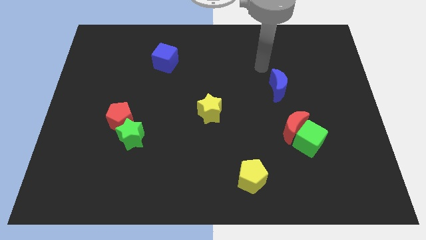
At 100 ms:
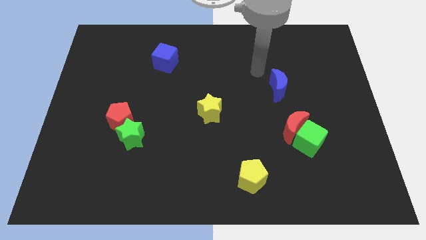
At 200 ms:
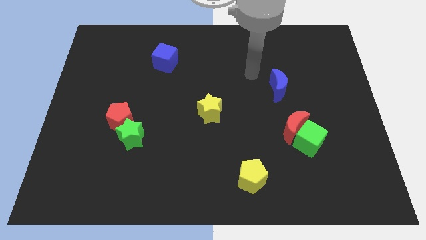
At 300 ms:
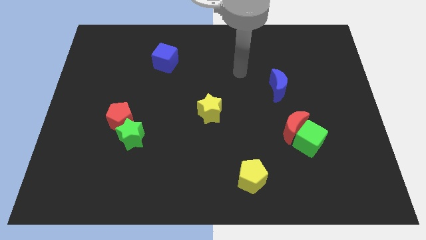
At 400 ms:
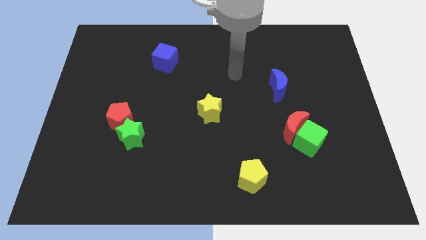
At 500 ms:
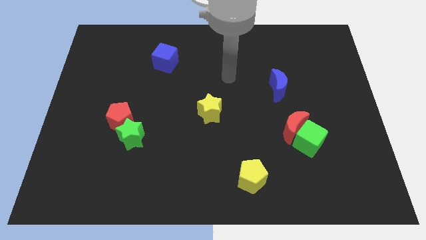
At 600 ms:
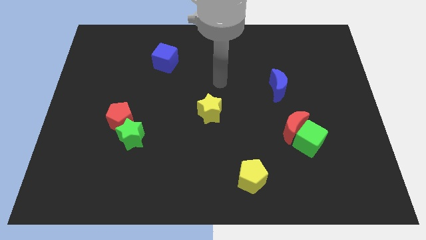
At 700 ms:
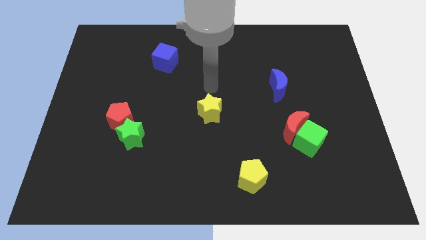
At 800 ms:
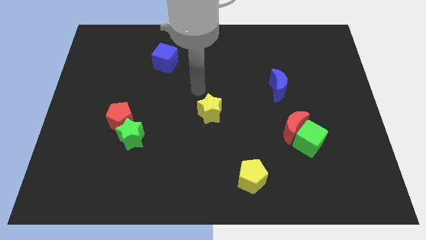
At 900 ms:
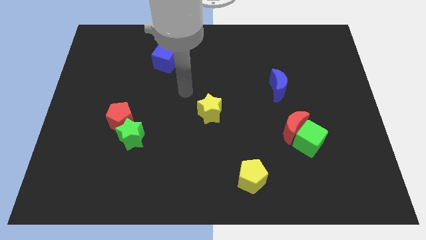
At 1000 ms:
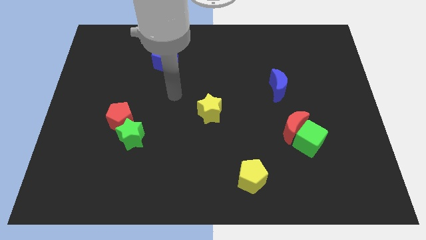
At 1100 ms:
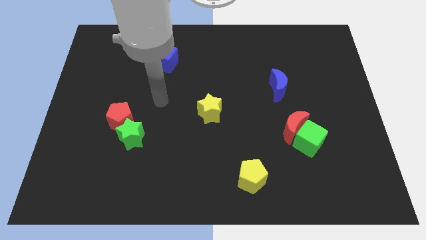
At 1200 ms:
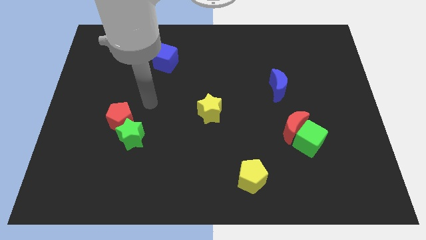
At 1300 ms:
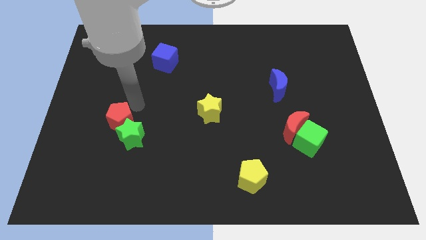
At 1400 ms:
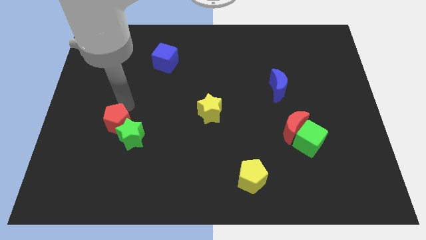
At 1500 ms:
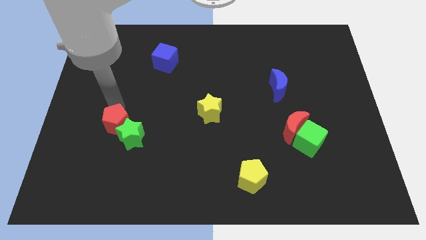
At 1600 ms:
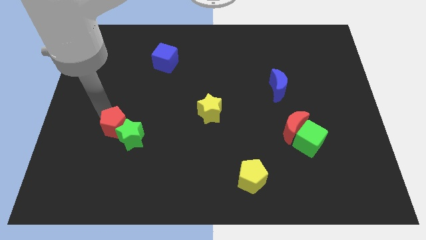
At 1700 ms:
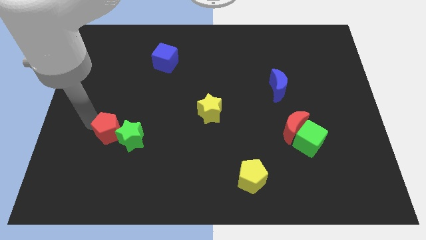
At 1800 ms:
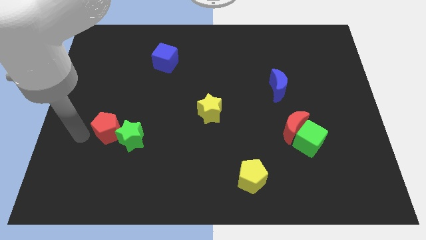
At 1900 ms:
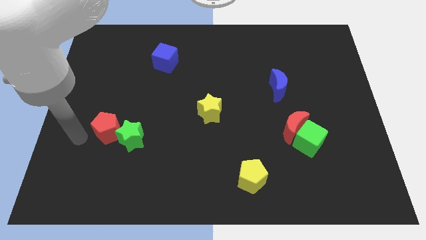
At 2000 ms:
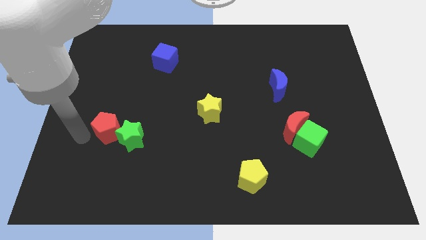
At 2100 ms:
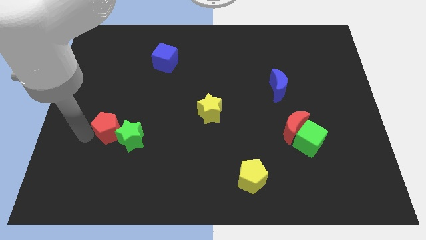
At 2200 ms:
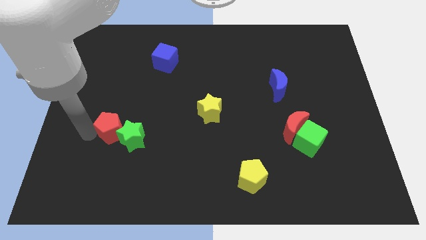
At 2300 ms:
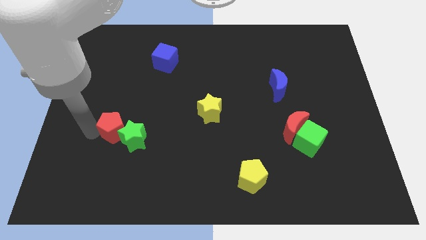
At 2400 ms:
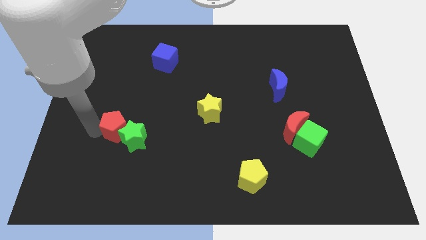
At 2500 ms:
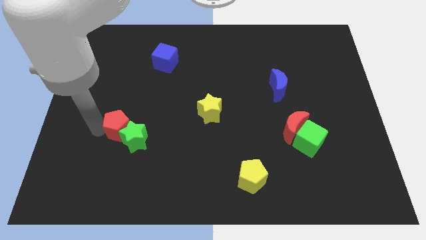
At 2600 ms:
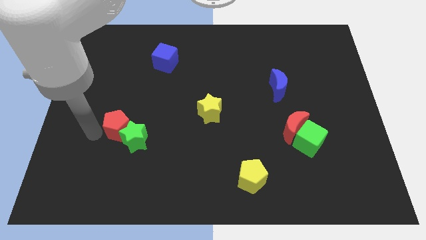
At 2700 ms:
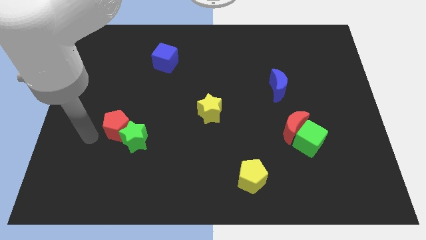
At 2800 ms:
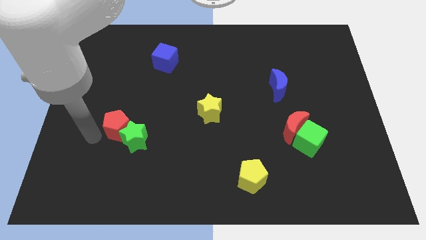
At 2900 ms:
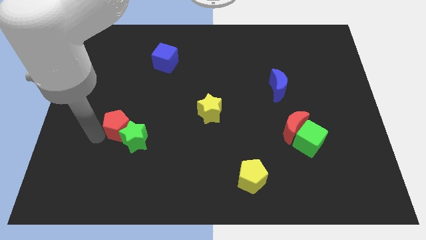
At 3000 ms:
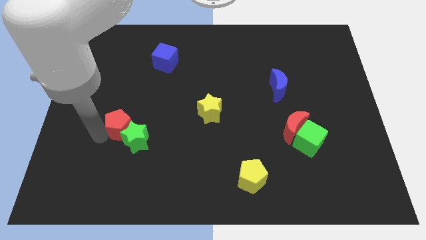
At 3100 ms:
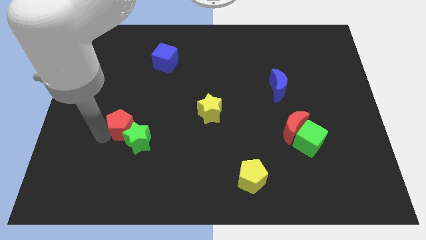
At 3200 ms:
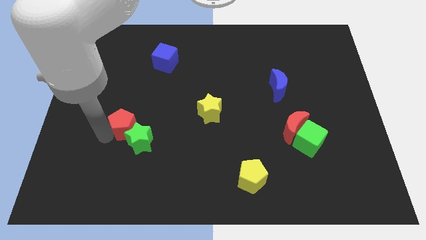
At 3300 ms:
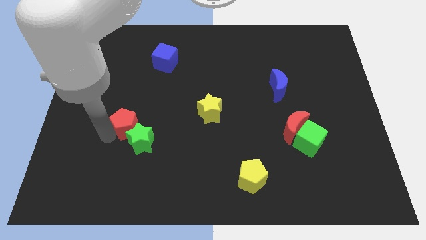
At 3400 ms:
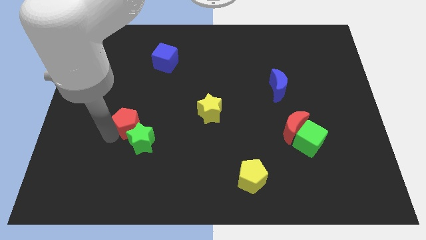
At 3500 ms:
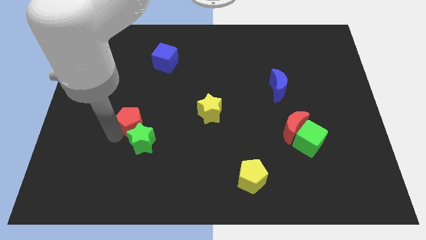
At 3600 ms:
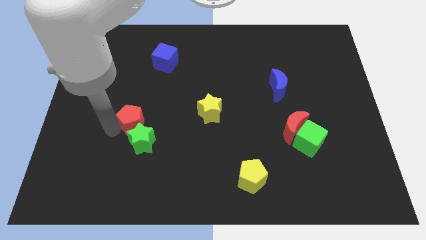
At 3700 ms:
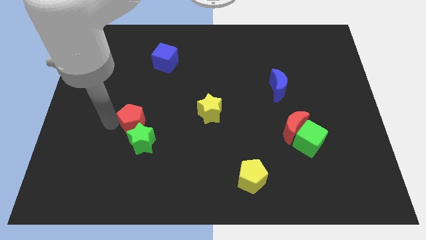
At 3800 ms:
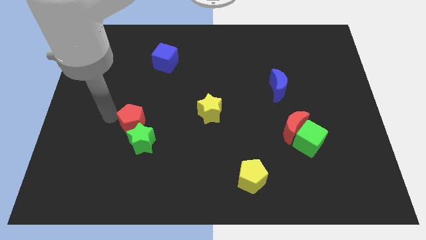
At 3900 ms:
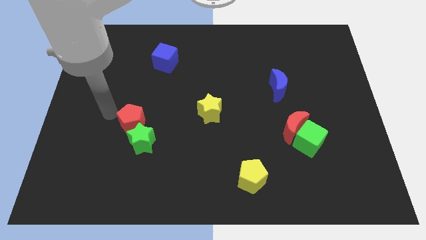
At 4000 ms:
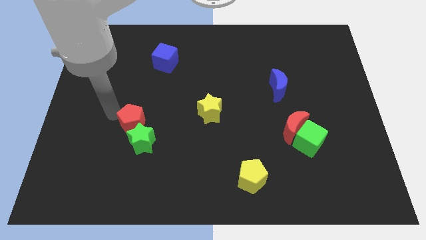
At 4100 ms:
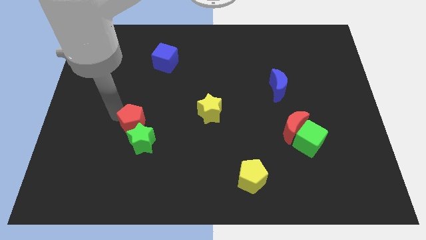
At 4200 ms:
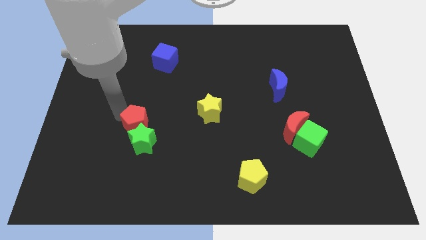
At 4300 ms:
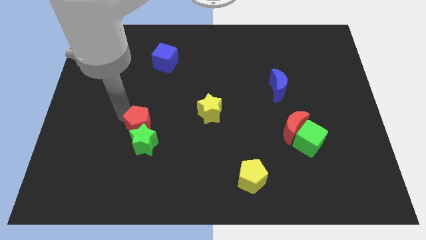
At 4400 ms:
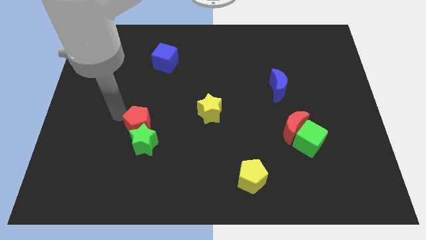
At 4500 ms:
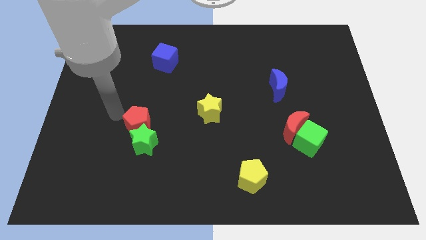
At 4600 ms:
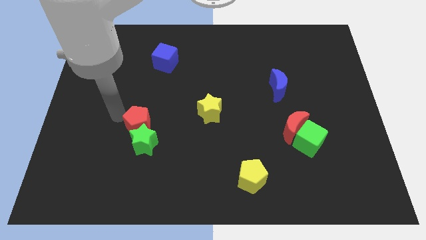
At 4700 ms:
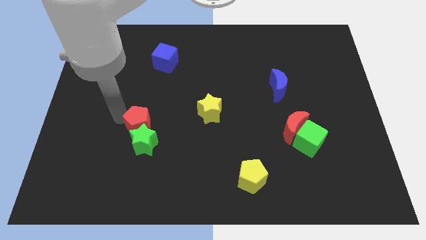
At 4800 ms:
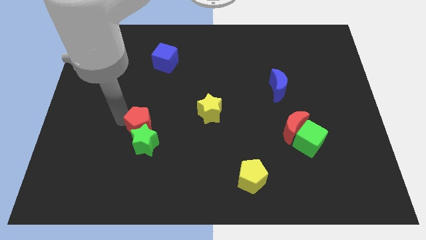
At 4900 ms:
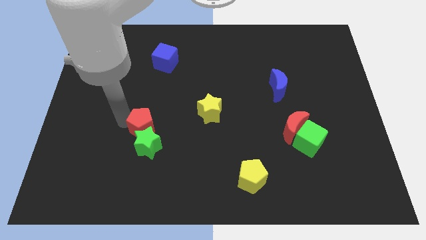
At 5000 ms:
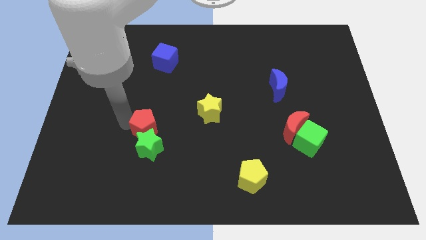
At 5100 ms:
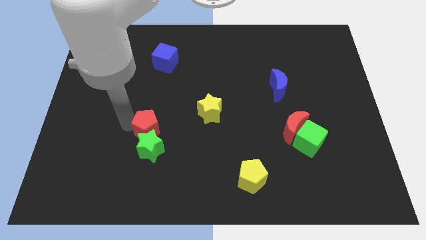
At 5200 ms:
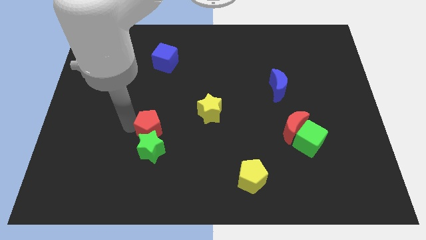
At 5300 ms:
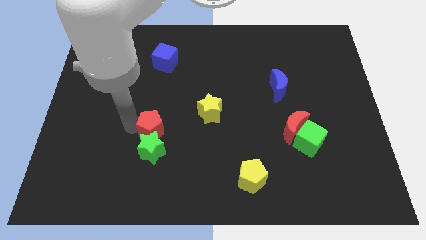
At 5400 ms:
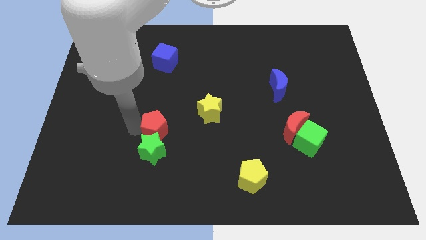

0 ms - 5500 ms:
slightly slide the red pentagon downwards and right

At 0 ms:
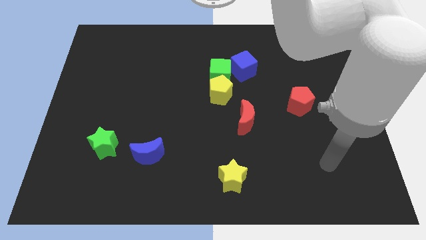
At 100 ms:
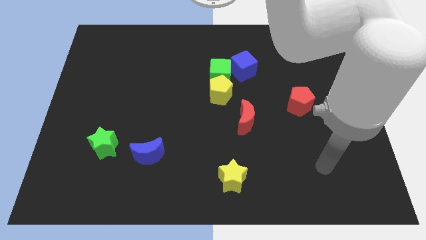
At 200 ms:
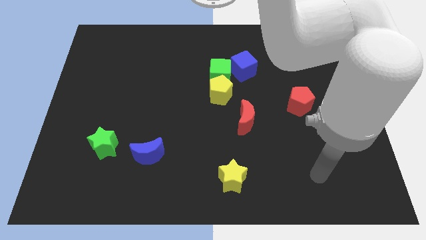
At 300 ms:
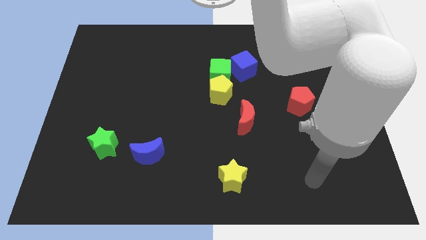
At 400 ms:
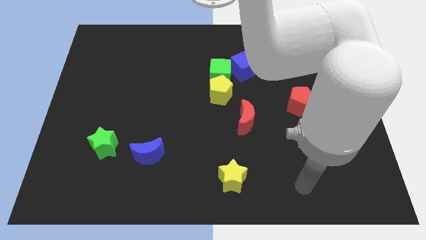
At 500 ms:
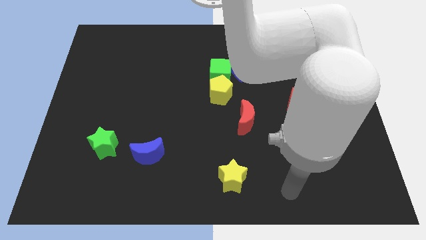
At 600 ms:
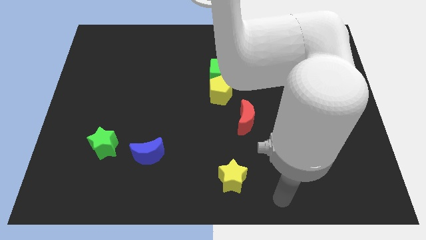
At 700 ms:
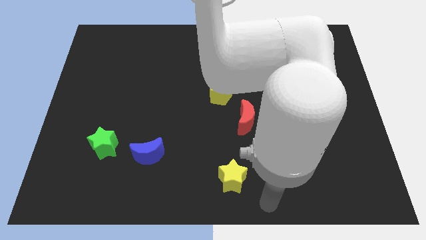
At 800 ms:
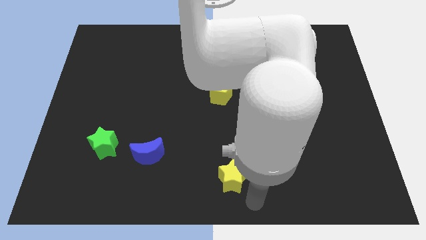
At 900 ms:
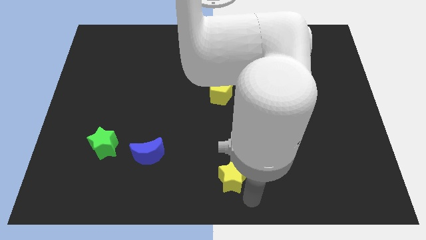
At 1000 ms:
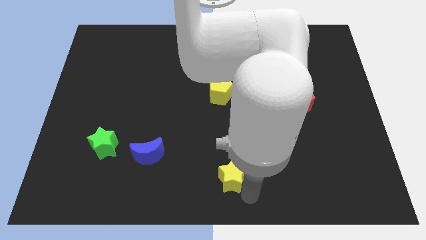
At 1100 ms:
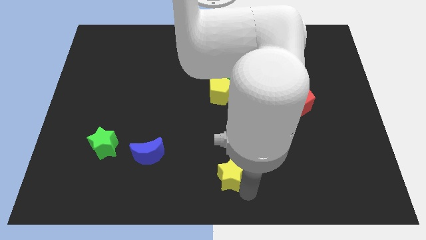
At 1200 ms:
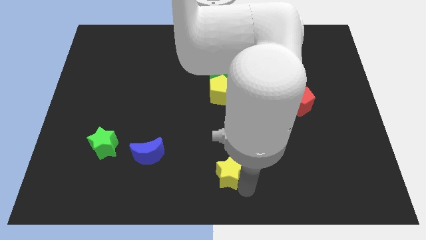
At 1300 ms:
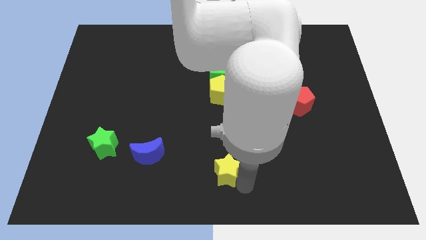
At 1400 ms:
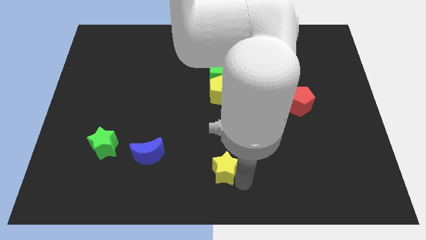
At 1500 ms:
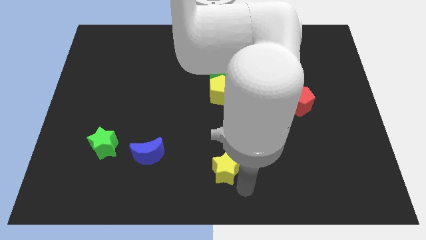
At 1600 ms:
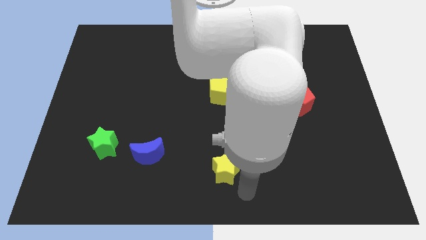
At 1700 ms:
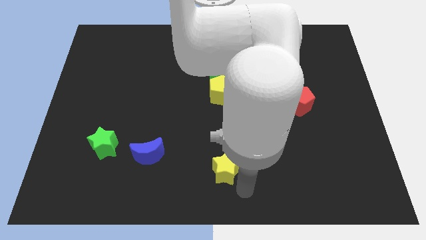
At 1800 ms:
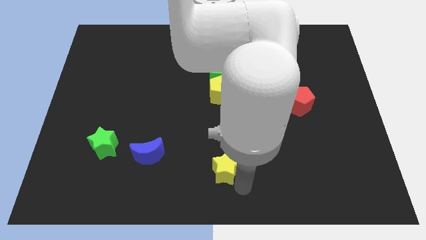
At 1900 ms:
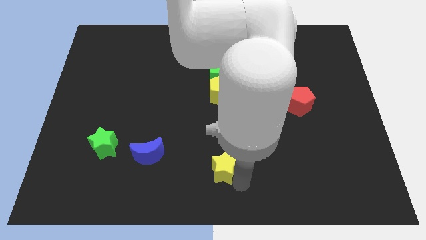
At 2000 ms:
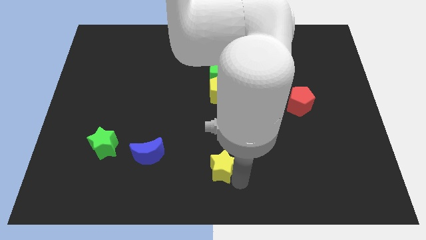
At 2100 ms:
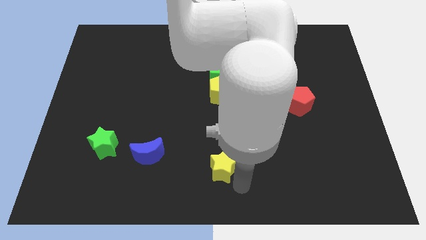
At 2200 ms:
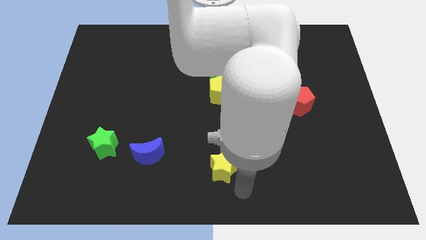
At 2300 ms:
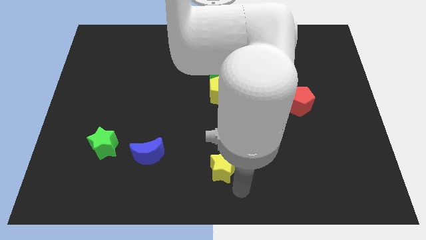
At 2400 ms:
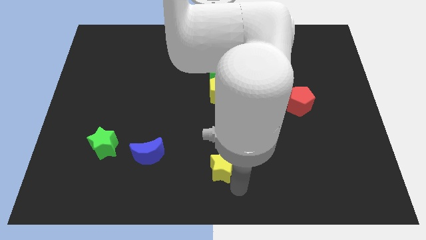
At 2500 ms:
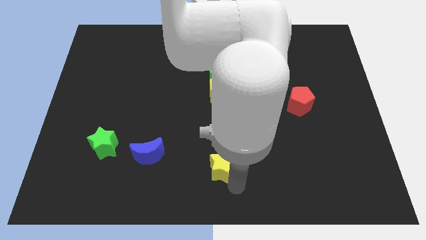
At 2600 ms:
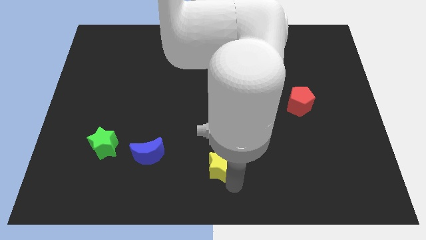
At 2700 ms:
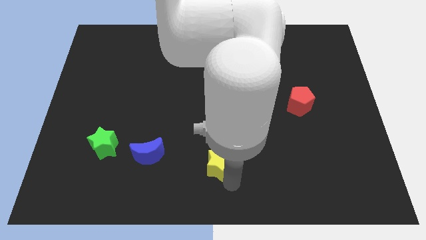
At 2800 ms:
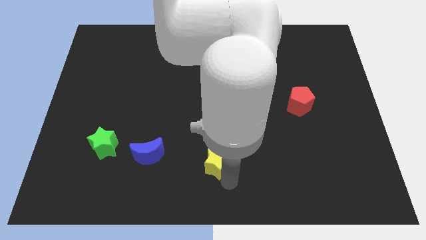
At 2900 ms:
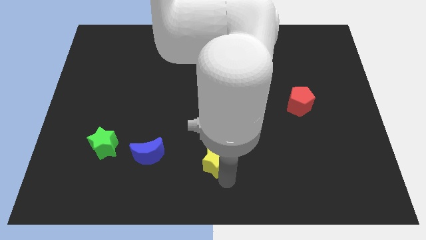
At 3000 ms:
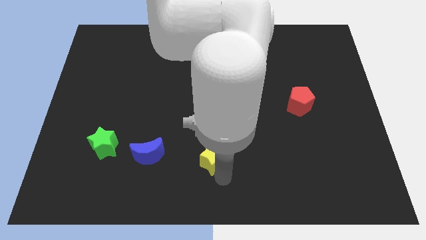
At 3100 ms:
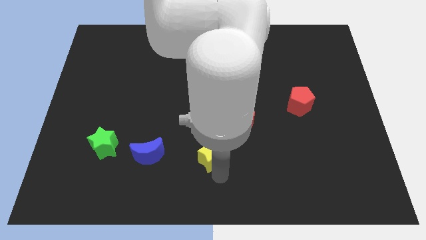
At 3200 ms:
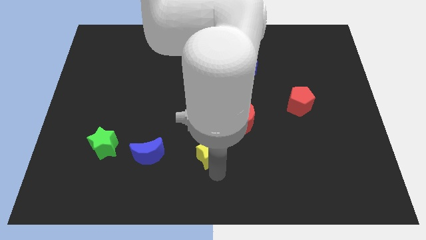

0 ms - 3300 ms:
slightly slide the yellow star upwards and left
